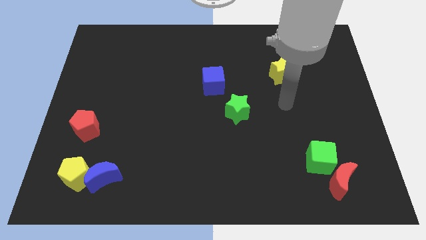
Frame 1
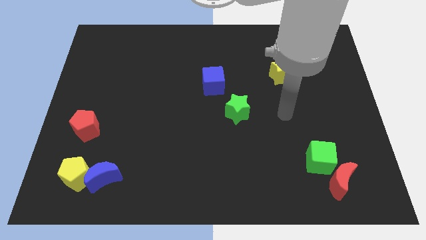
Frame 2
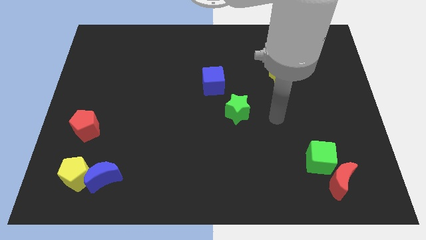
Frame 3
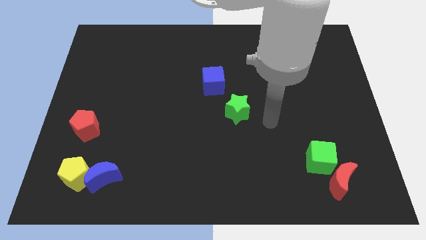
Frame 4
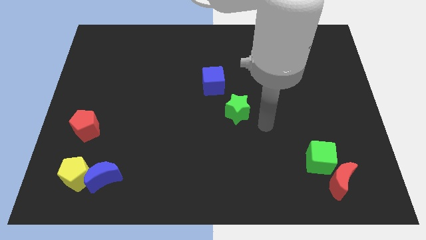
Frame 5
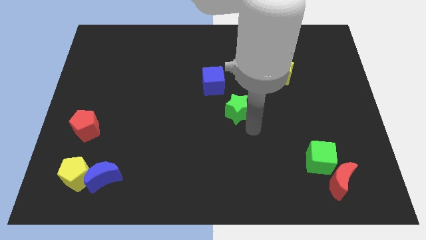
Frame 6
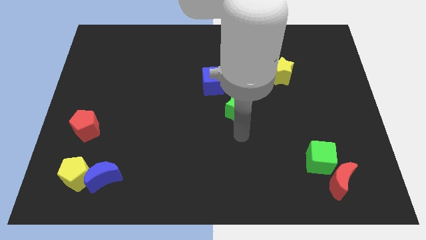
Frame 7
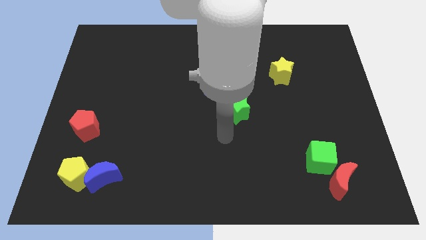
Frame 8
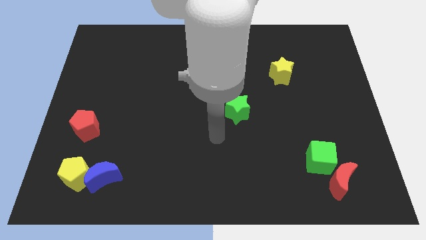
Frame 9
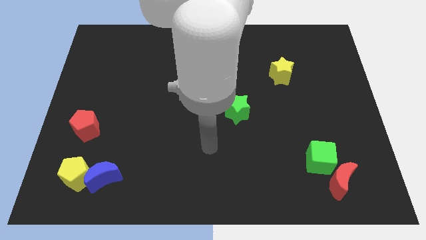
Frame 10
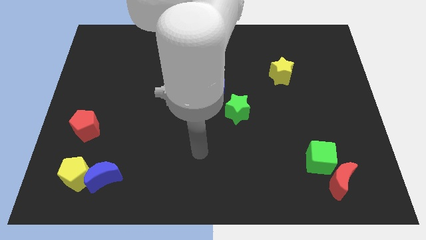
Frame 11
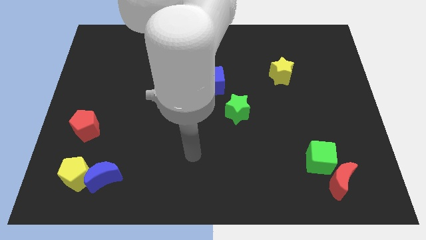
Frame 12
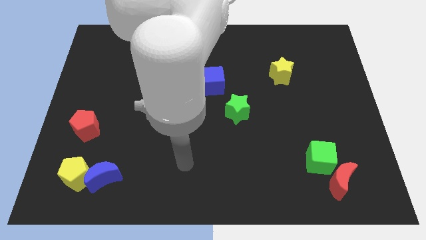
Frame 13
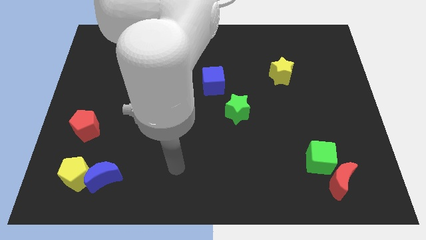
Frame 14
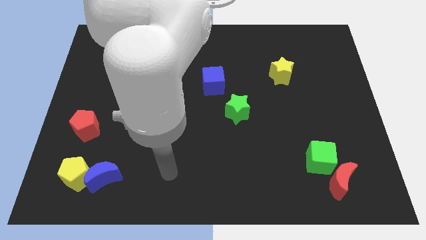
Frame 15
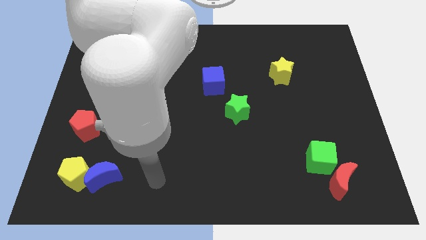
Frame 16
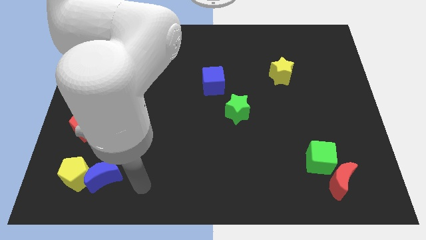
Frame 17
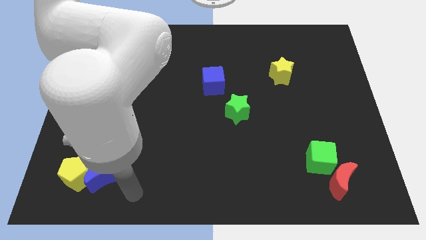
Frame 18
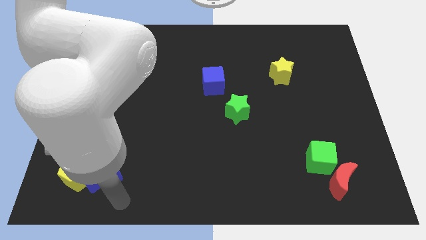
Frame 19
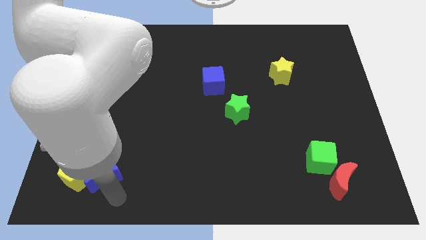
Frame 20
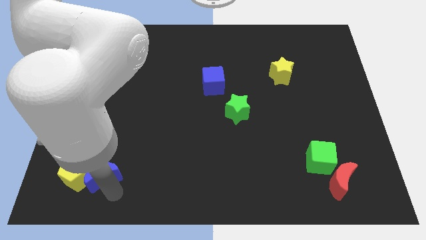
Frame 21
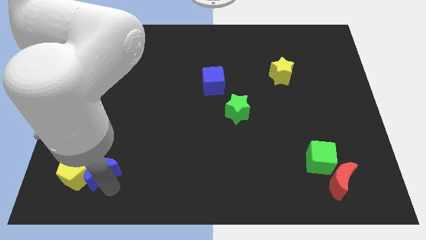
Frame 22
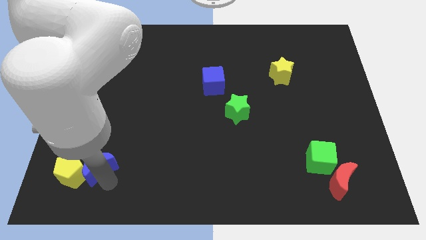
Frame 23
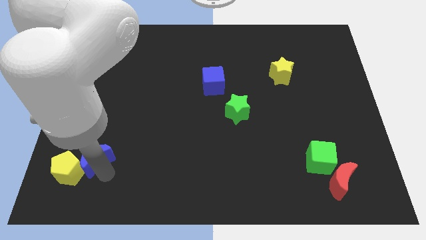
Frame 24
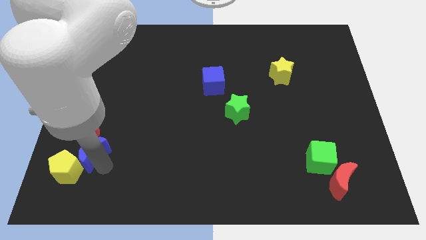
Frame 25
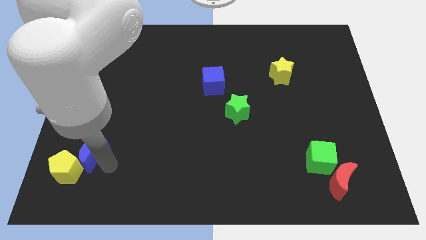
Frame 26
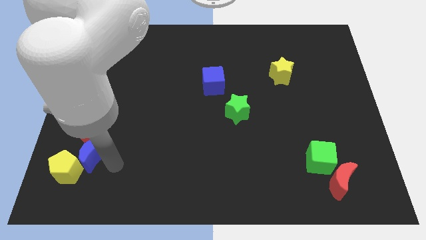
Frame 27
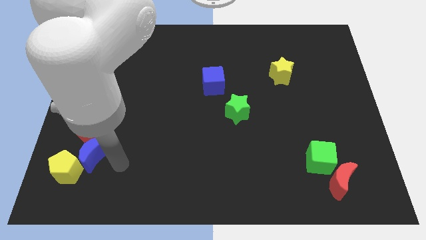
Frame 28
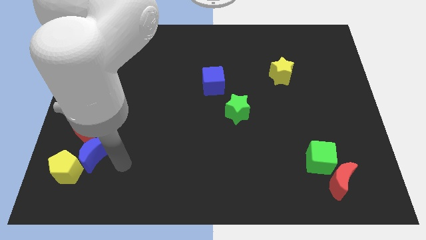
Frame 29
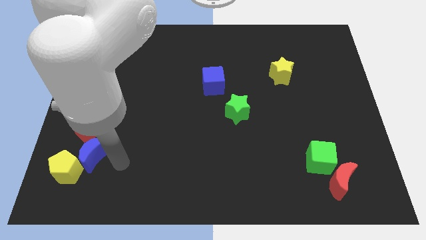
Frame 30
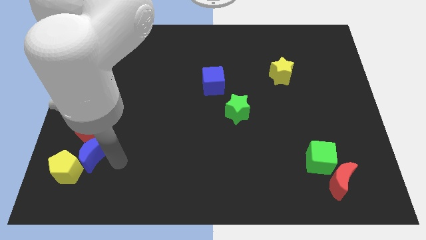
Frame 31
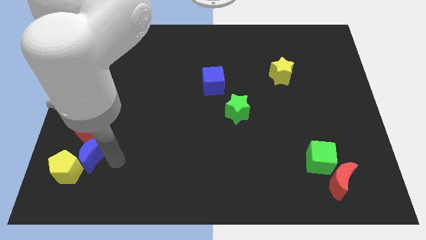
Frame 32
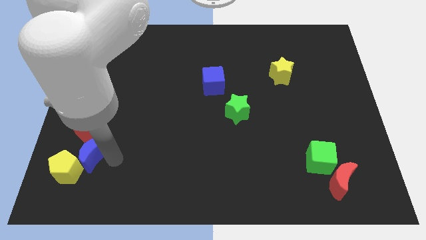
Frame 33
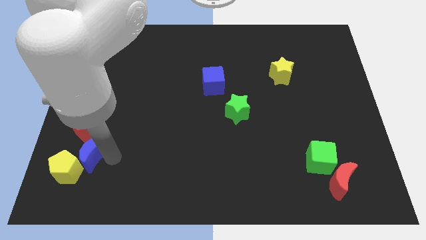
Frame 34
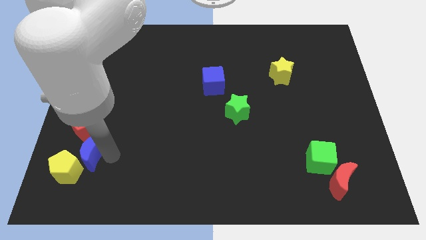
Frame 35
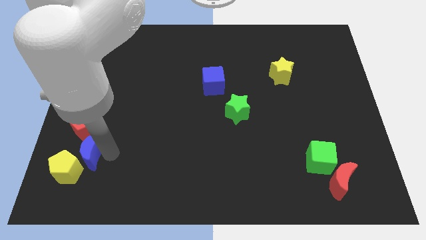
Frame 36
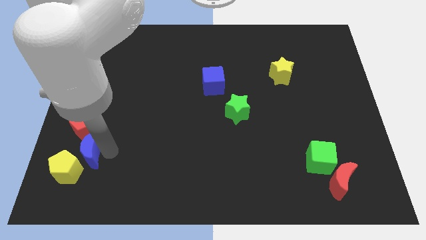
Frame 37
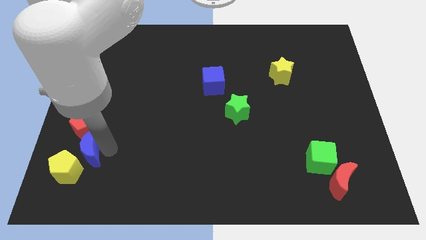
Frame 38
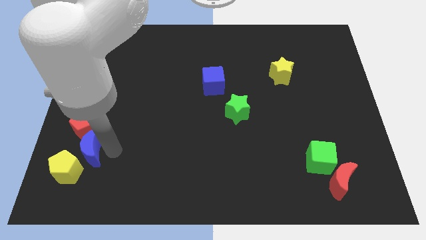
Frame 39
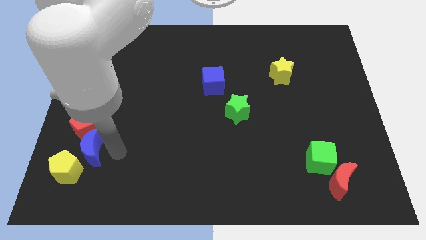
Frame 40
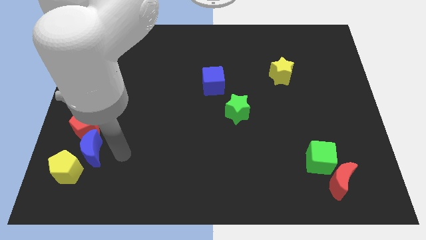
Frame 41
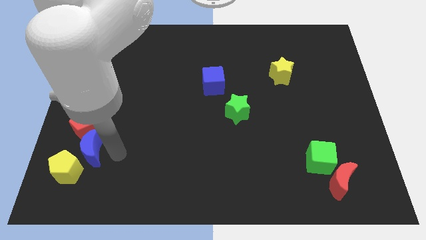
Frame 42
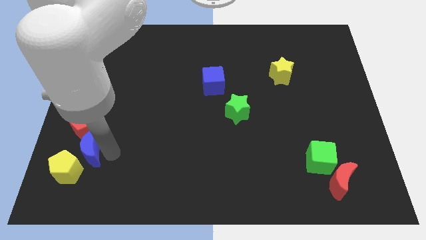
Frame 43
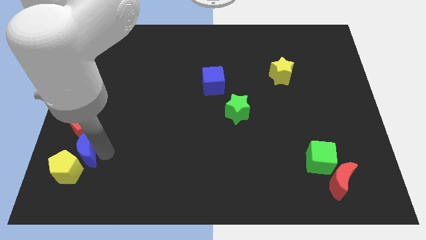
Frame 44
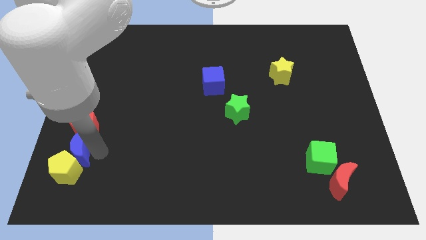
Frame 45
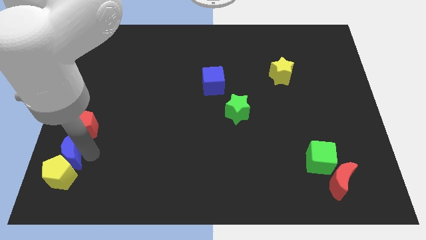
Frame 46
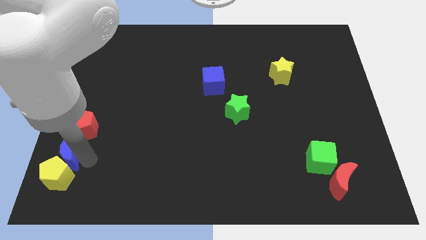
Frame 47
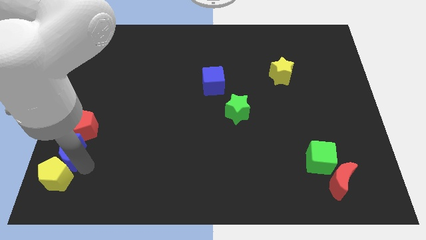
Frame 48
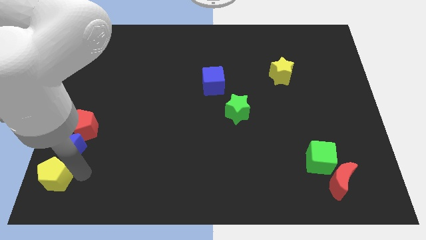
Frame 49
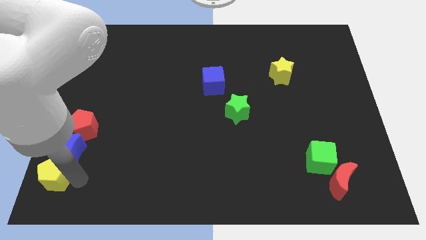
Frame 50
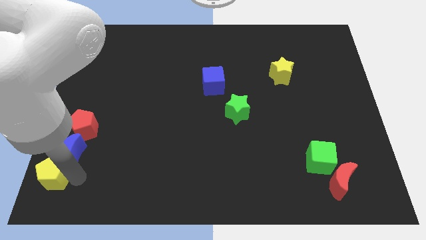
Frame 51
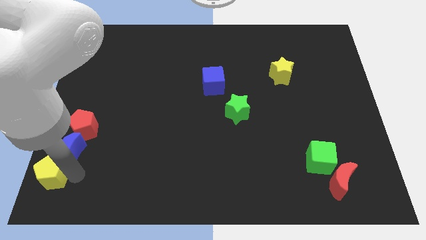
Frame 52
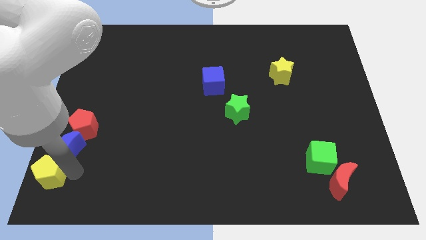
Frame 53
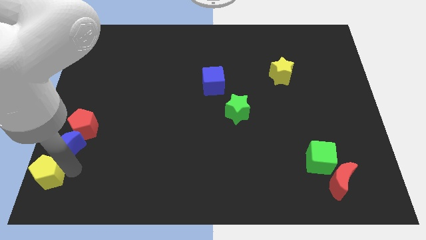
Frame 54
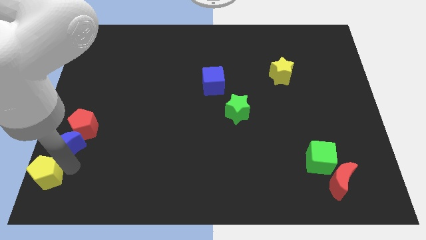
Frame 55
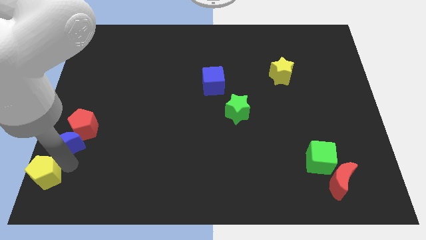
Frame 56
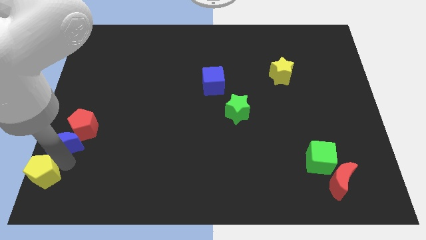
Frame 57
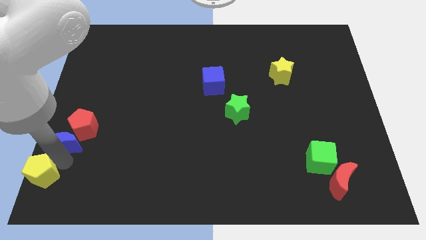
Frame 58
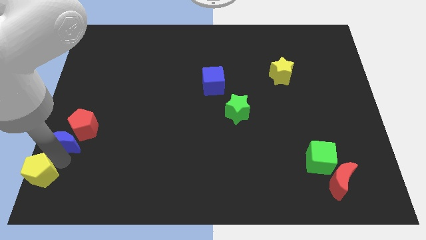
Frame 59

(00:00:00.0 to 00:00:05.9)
push the blue moon to the left side of the board

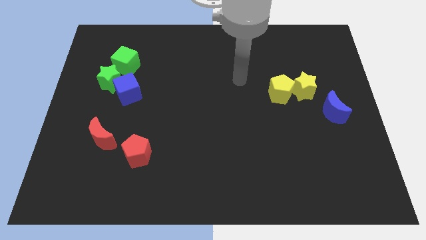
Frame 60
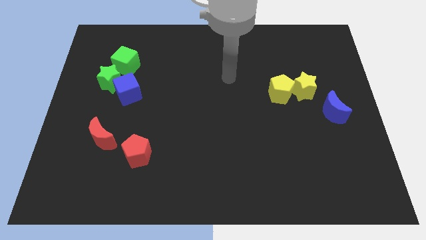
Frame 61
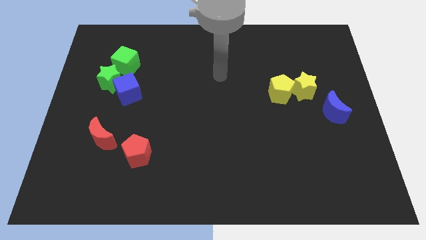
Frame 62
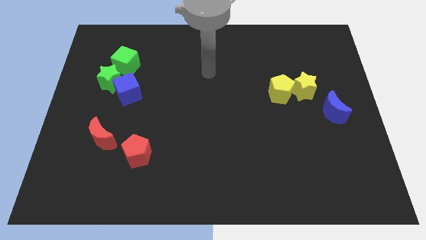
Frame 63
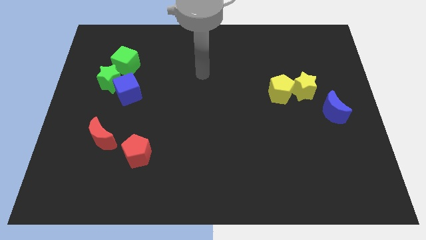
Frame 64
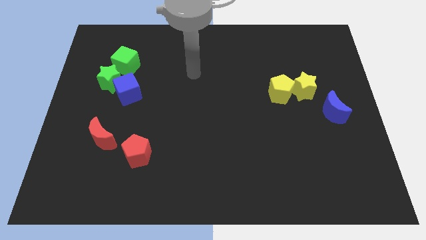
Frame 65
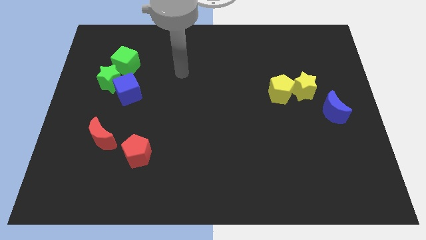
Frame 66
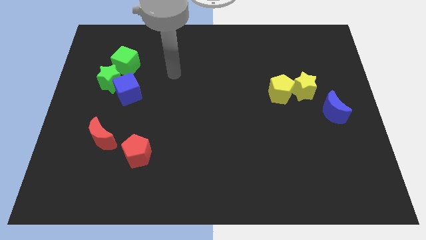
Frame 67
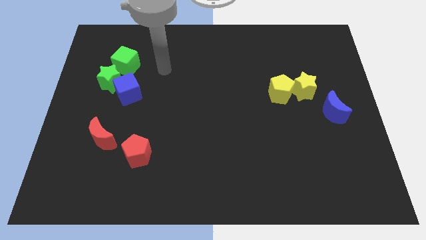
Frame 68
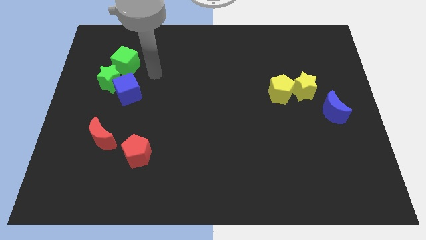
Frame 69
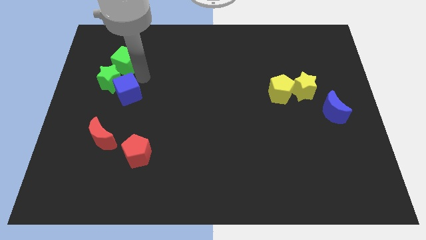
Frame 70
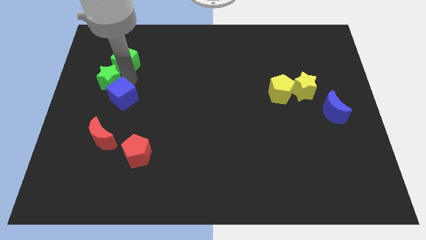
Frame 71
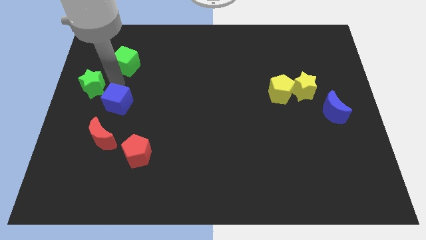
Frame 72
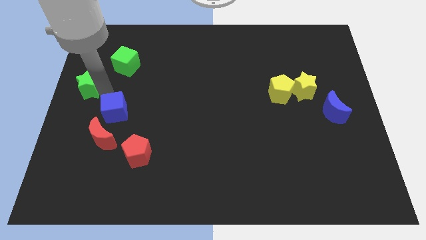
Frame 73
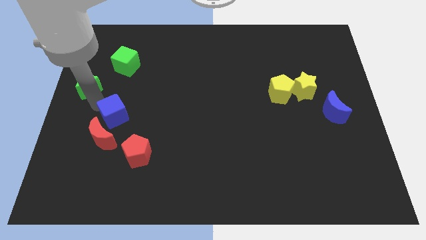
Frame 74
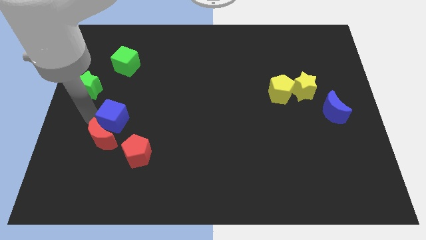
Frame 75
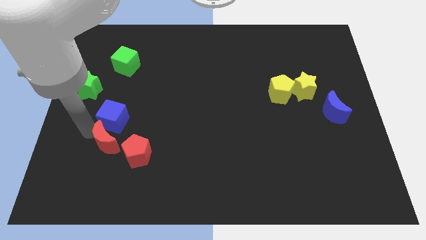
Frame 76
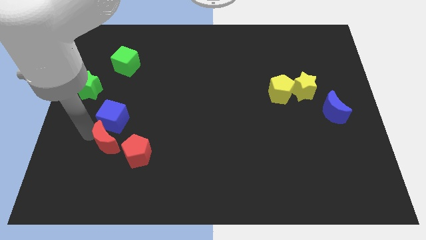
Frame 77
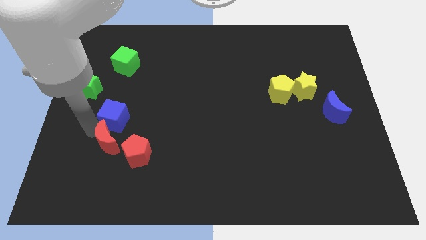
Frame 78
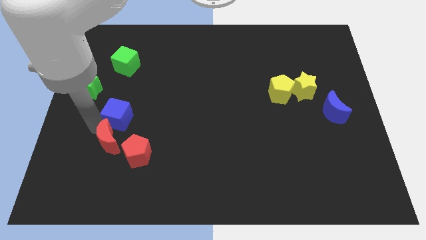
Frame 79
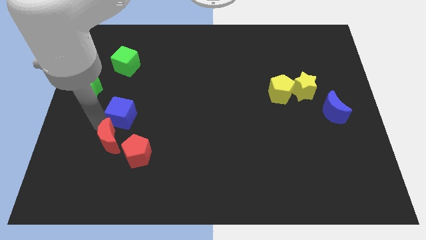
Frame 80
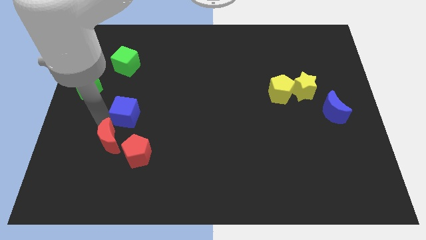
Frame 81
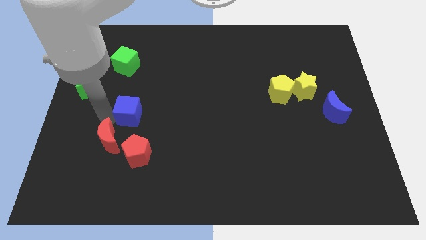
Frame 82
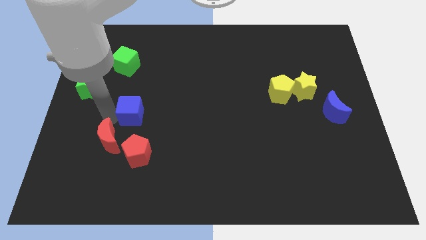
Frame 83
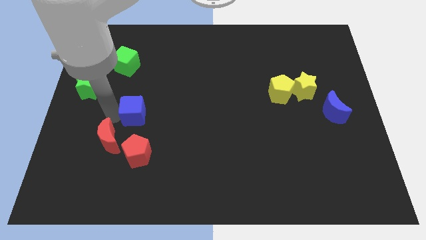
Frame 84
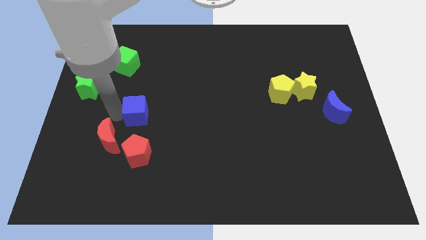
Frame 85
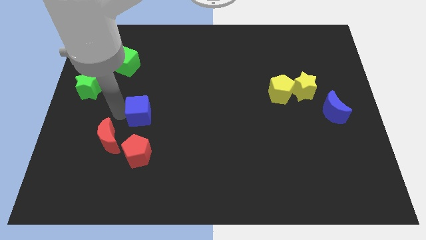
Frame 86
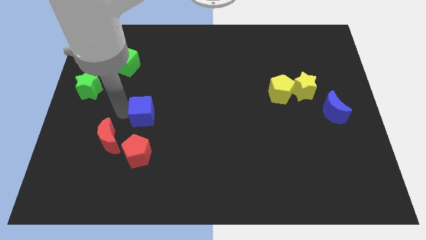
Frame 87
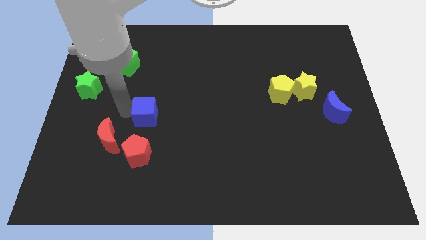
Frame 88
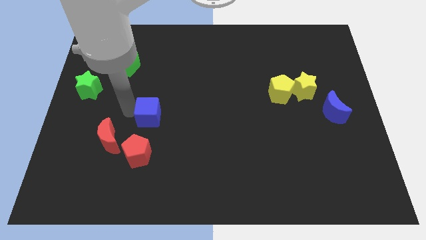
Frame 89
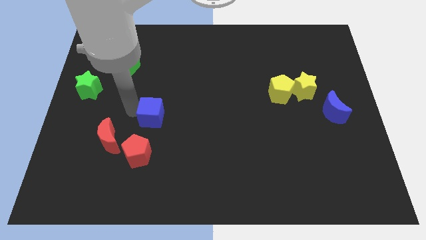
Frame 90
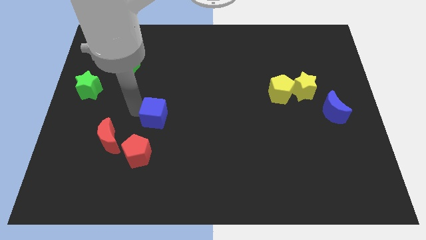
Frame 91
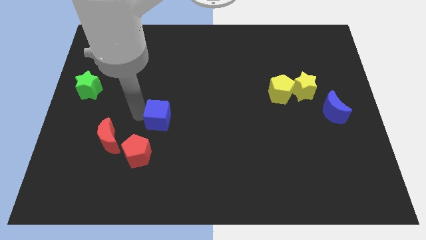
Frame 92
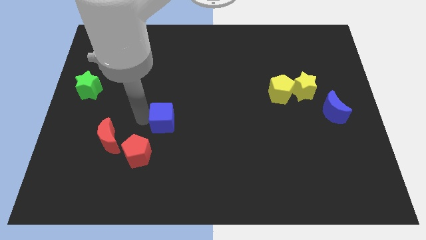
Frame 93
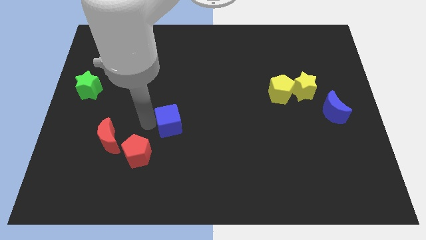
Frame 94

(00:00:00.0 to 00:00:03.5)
push the blue cube to the center of the board
